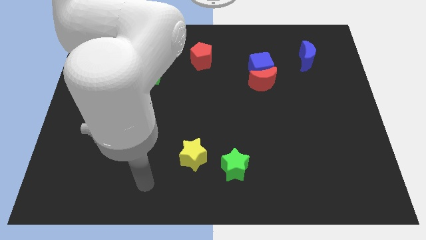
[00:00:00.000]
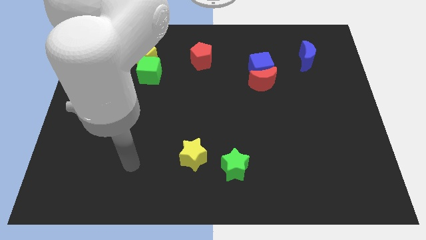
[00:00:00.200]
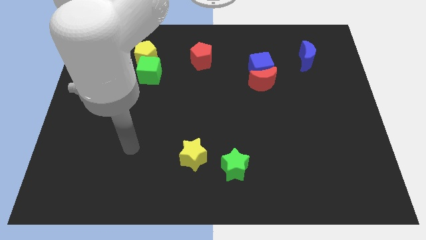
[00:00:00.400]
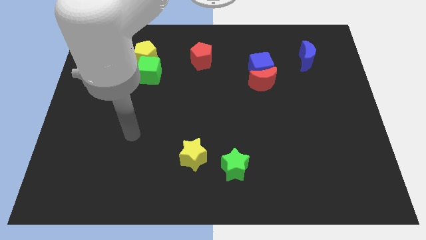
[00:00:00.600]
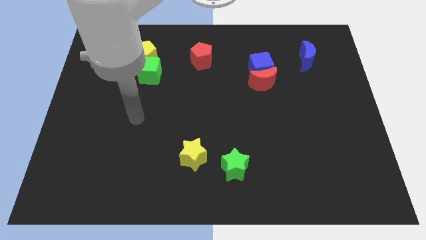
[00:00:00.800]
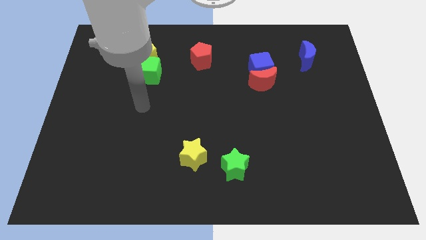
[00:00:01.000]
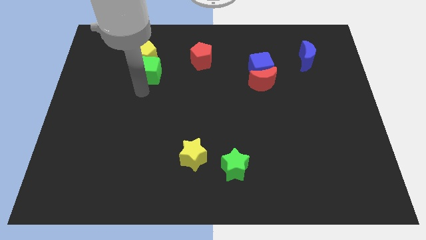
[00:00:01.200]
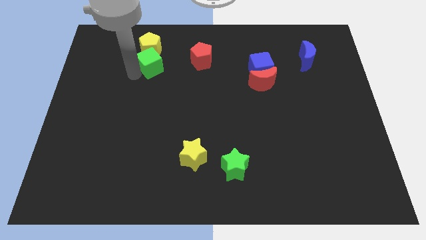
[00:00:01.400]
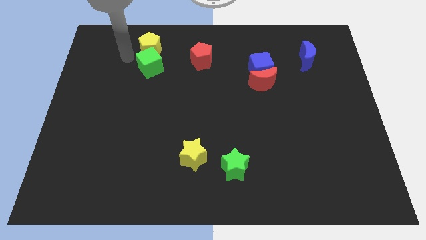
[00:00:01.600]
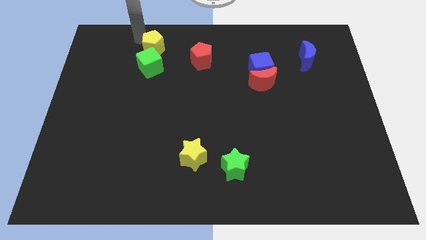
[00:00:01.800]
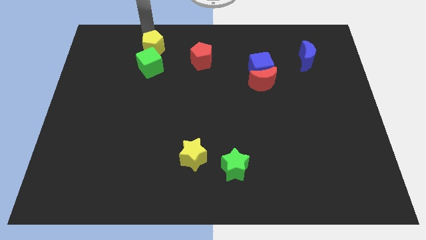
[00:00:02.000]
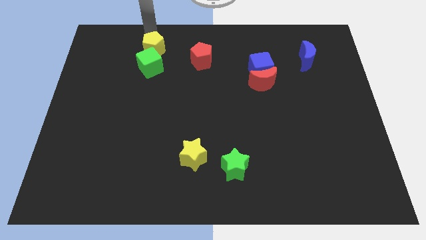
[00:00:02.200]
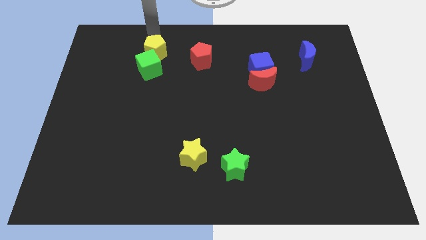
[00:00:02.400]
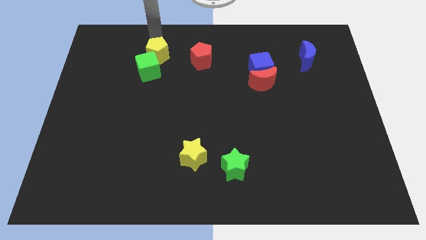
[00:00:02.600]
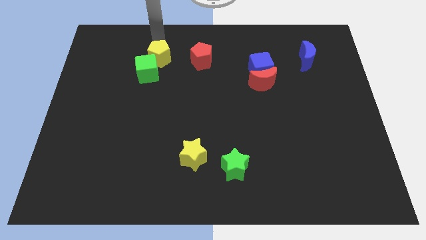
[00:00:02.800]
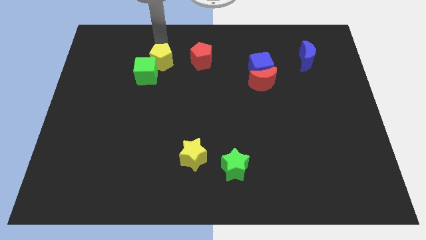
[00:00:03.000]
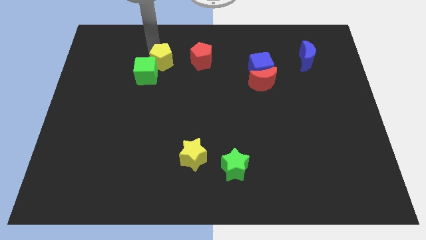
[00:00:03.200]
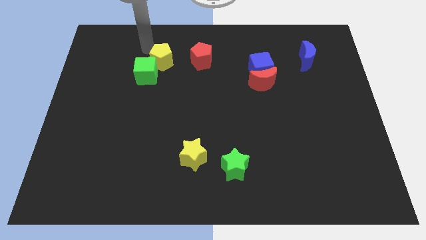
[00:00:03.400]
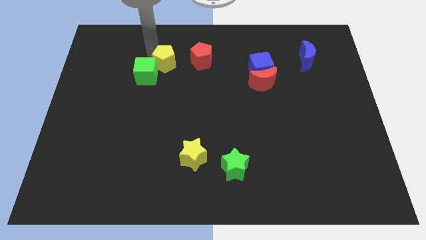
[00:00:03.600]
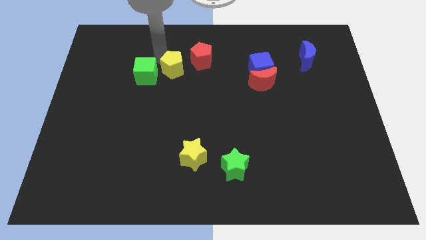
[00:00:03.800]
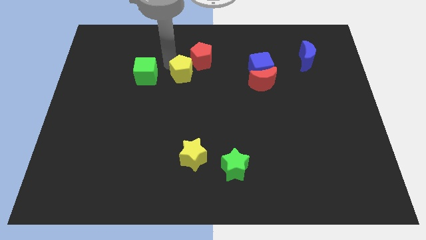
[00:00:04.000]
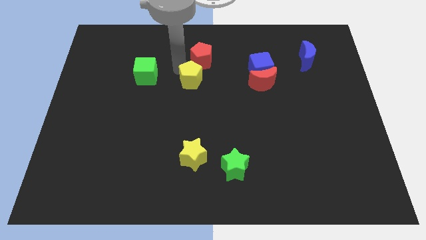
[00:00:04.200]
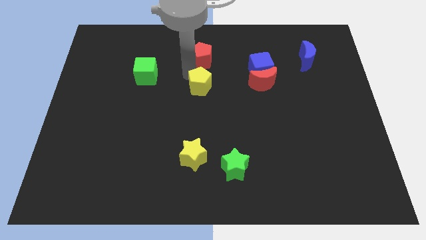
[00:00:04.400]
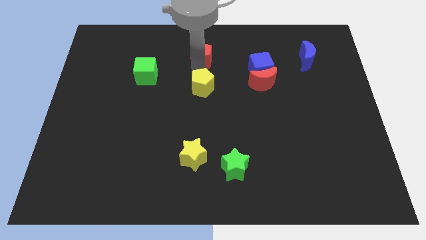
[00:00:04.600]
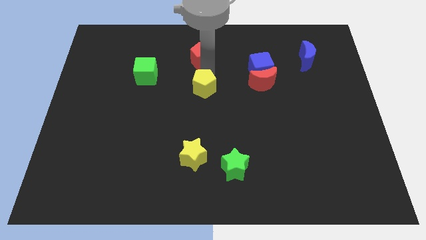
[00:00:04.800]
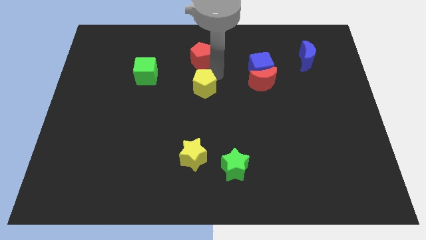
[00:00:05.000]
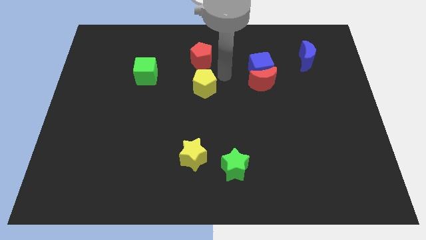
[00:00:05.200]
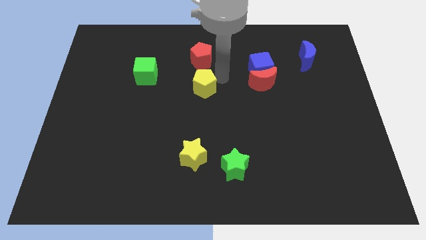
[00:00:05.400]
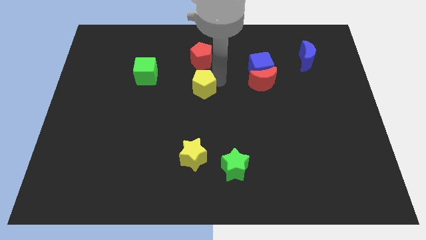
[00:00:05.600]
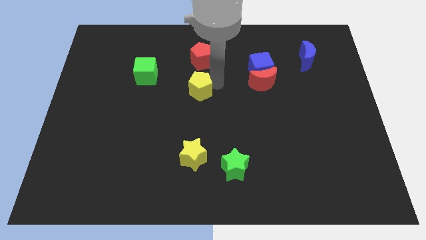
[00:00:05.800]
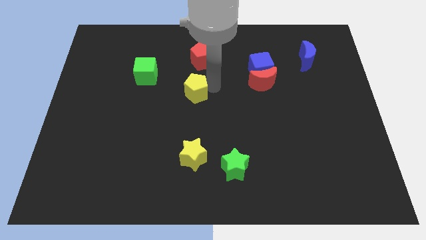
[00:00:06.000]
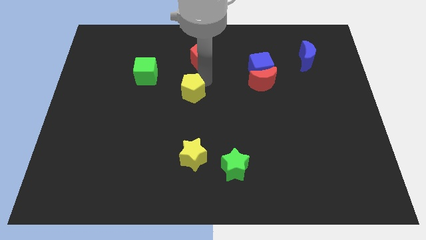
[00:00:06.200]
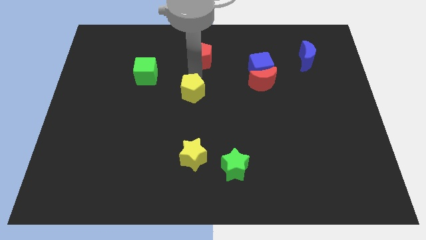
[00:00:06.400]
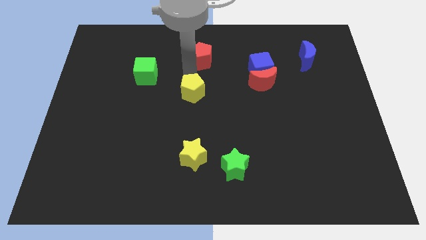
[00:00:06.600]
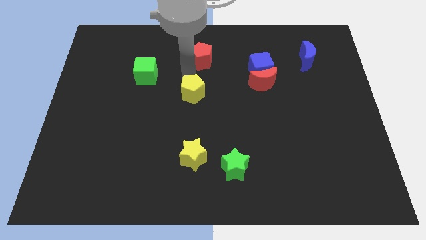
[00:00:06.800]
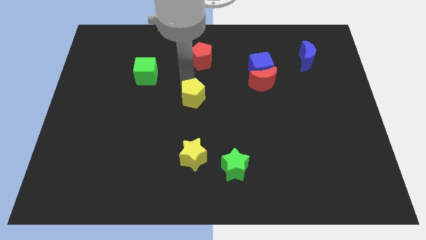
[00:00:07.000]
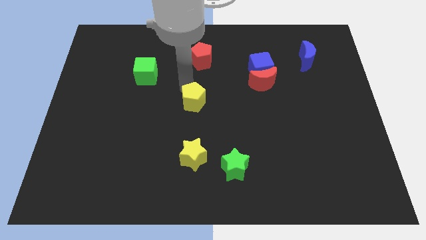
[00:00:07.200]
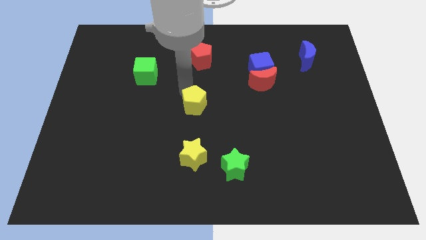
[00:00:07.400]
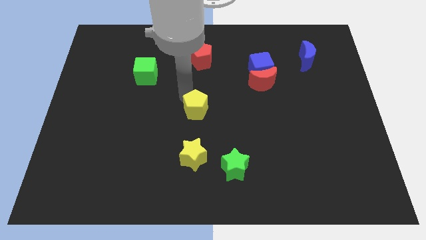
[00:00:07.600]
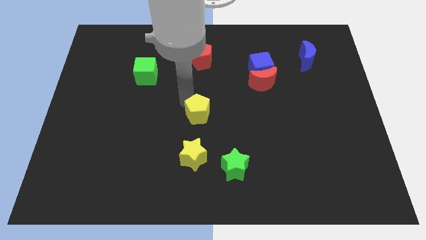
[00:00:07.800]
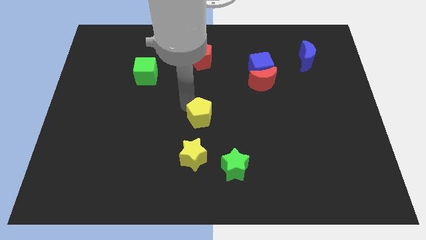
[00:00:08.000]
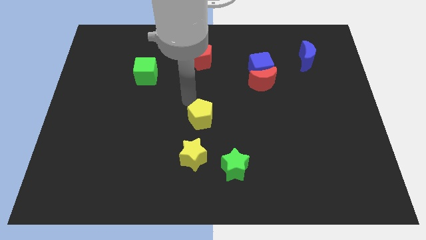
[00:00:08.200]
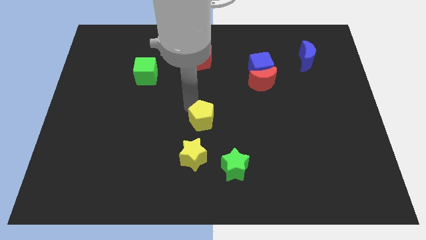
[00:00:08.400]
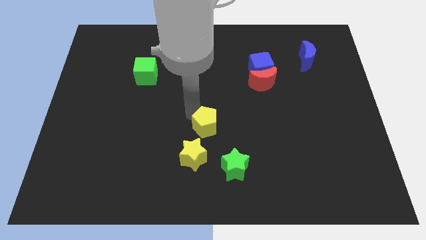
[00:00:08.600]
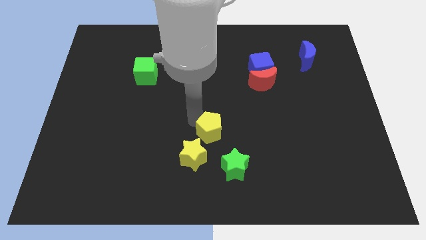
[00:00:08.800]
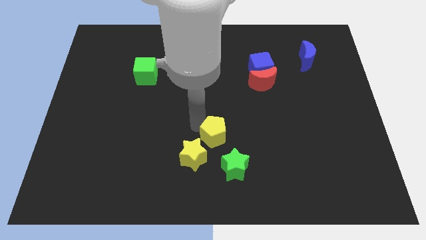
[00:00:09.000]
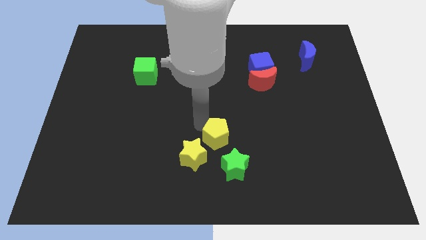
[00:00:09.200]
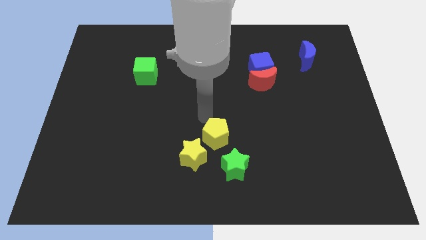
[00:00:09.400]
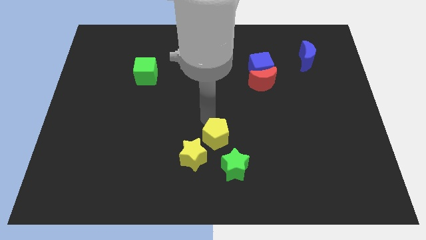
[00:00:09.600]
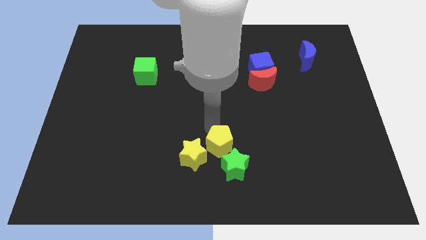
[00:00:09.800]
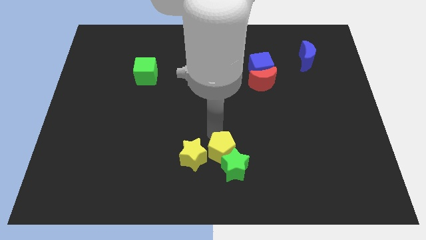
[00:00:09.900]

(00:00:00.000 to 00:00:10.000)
move the yellow pentagon towards the green star
